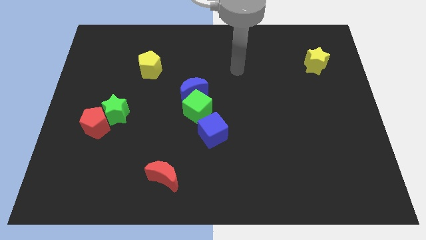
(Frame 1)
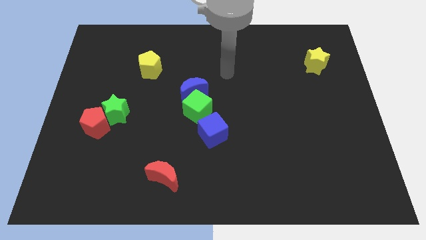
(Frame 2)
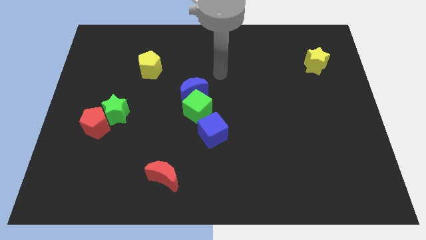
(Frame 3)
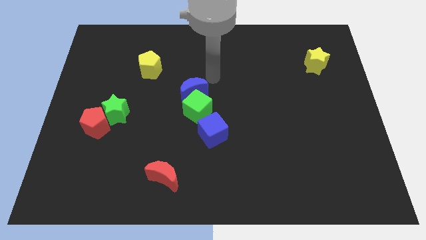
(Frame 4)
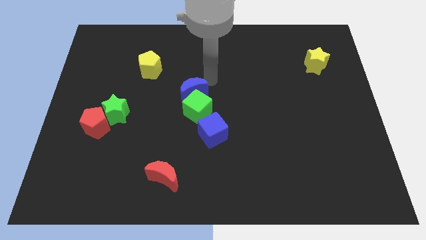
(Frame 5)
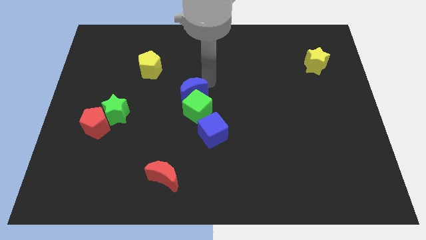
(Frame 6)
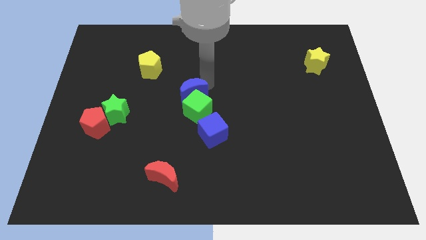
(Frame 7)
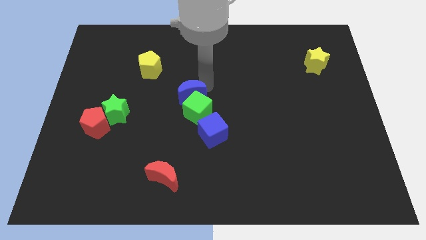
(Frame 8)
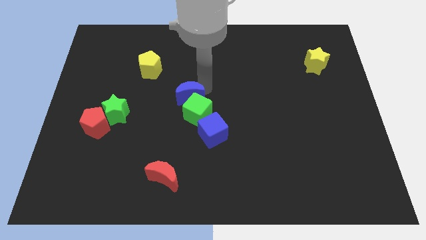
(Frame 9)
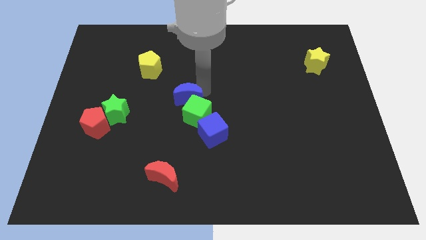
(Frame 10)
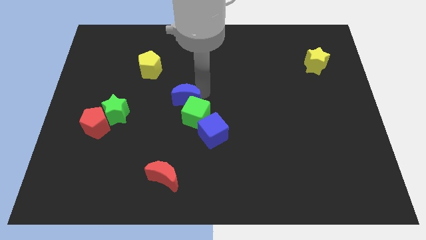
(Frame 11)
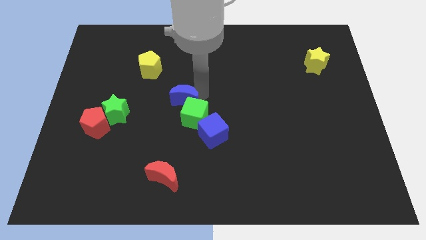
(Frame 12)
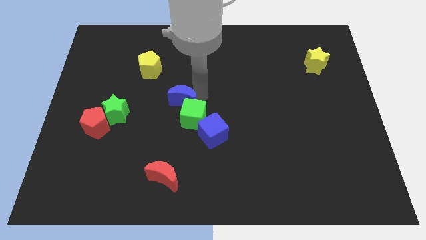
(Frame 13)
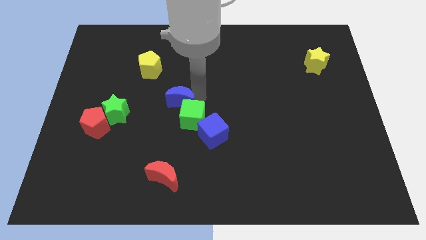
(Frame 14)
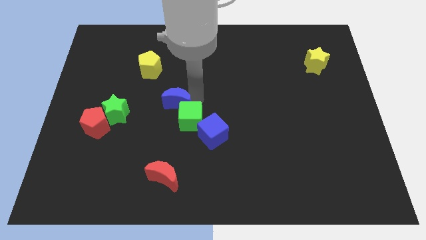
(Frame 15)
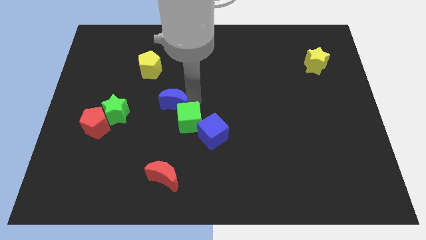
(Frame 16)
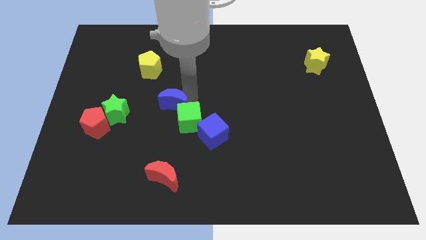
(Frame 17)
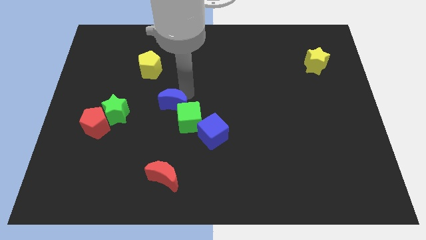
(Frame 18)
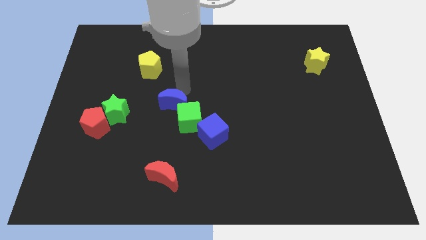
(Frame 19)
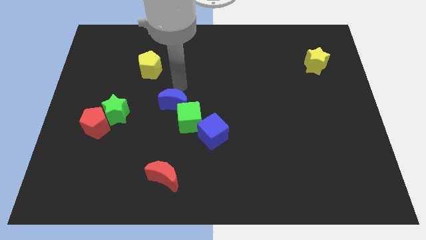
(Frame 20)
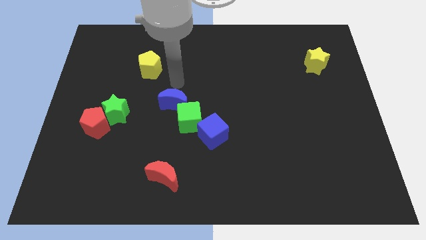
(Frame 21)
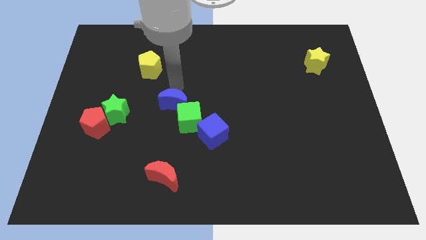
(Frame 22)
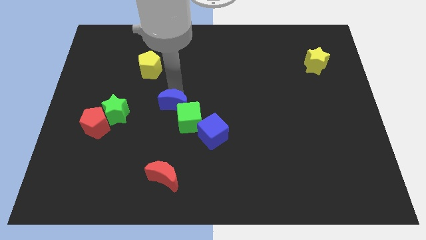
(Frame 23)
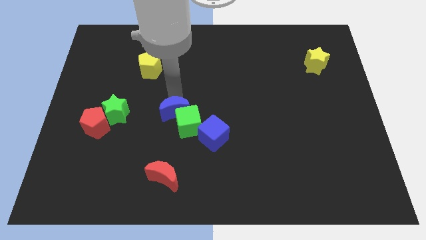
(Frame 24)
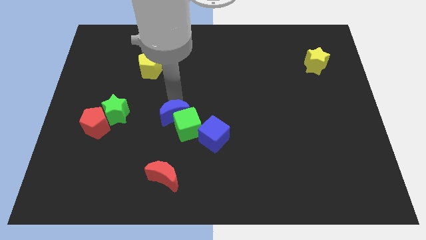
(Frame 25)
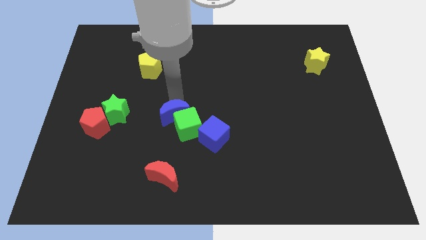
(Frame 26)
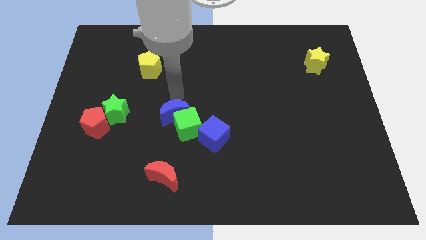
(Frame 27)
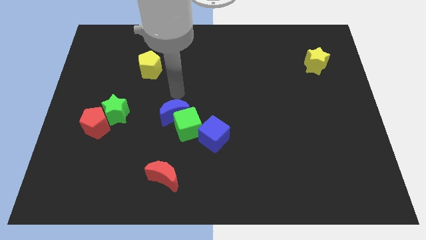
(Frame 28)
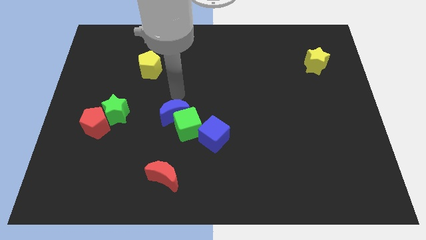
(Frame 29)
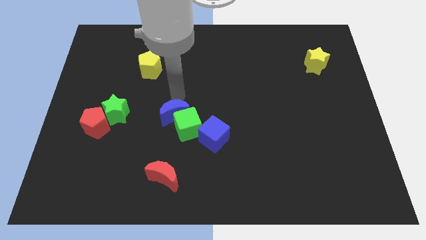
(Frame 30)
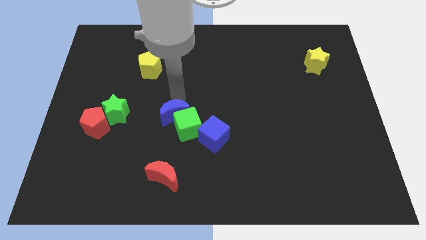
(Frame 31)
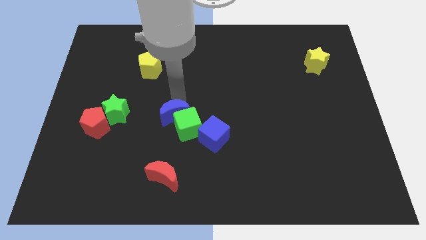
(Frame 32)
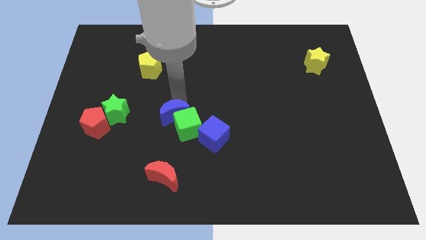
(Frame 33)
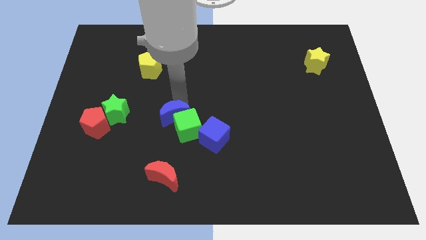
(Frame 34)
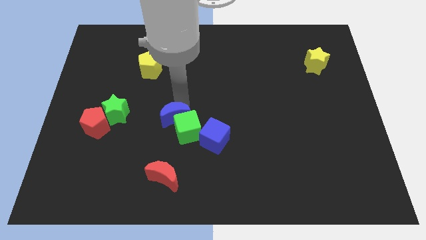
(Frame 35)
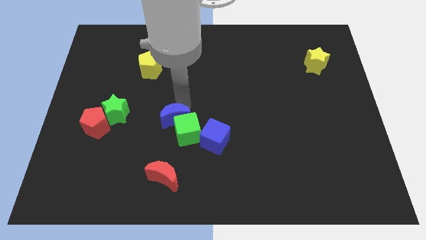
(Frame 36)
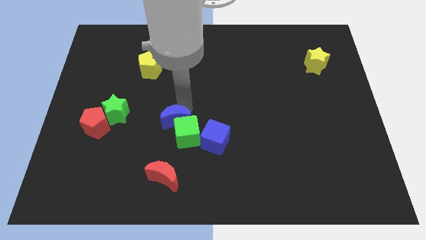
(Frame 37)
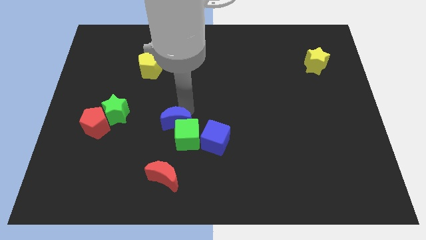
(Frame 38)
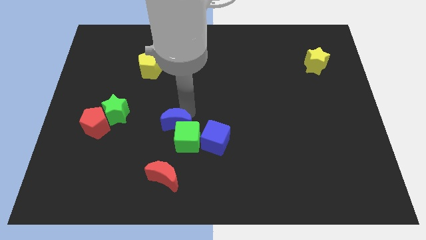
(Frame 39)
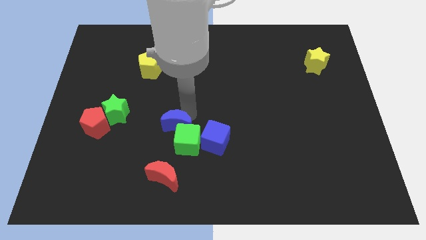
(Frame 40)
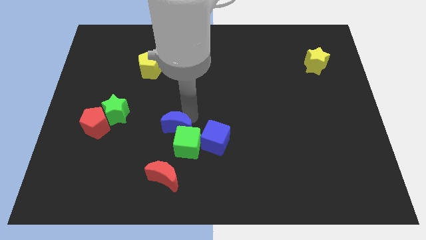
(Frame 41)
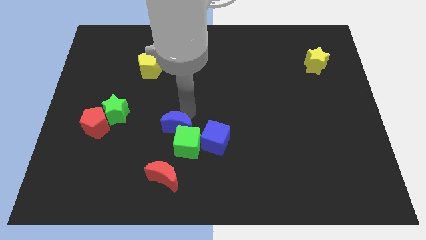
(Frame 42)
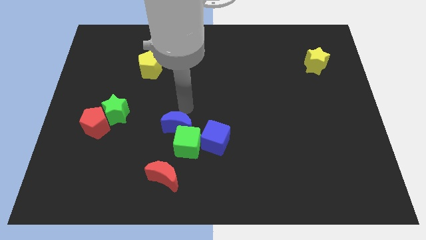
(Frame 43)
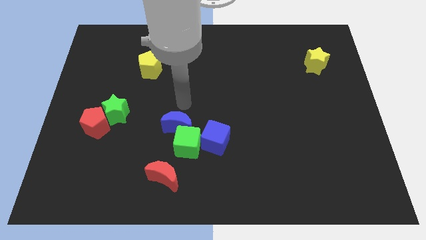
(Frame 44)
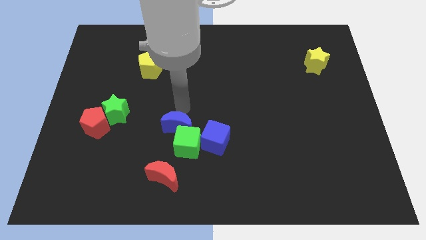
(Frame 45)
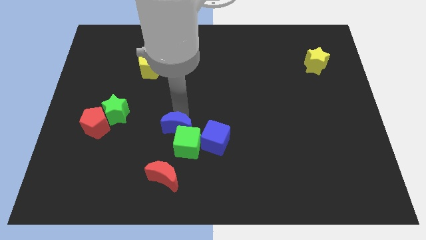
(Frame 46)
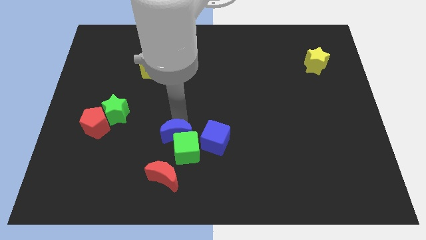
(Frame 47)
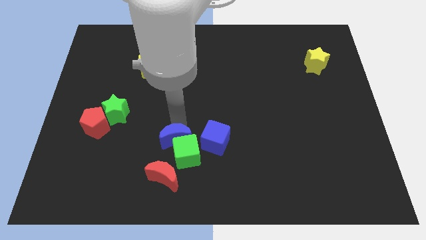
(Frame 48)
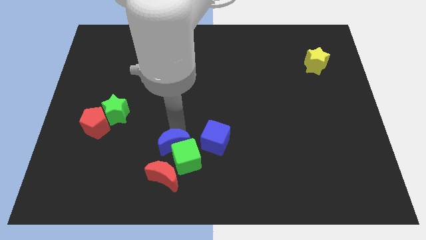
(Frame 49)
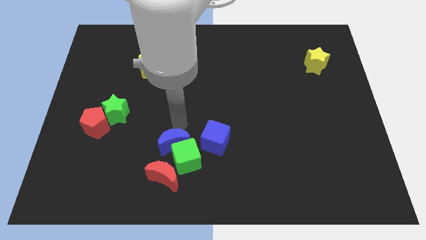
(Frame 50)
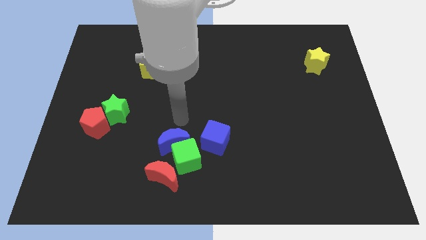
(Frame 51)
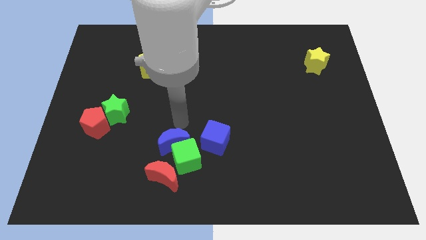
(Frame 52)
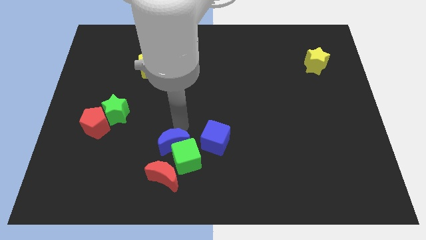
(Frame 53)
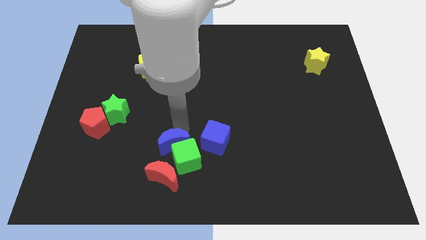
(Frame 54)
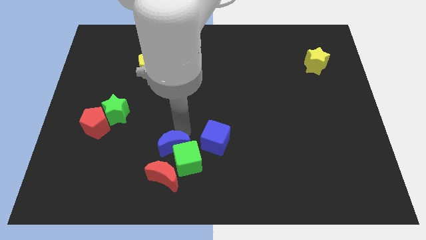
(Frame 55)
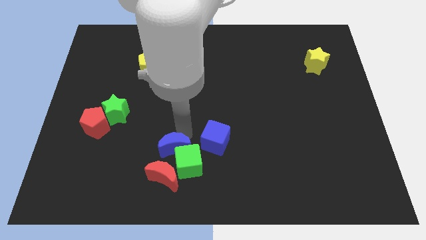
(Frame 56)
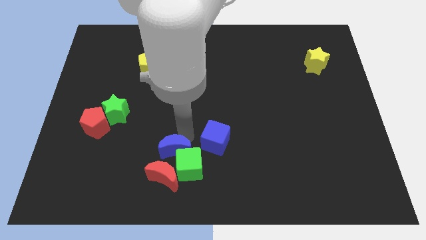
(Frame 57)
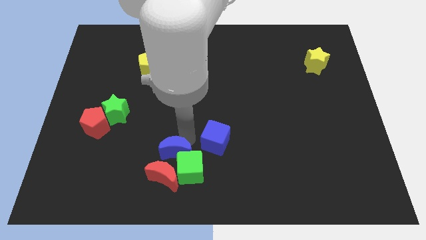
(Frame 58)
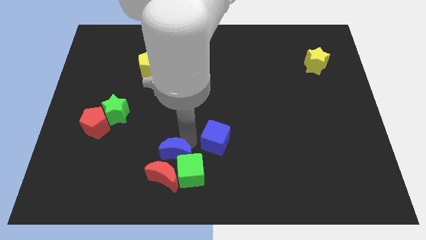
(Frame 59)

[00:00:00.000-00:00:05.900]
move the blue moon next to the red moon

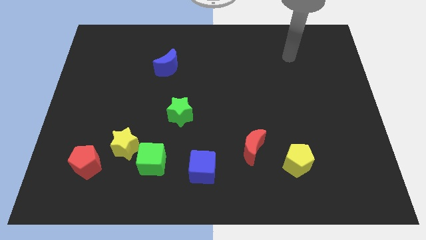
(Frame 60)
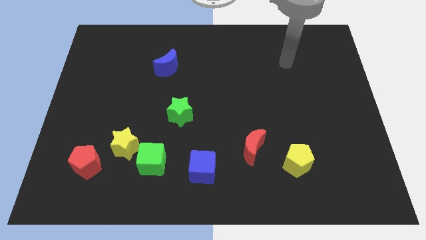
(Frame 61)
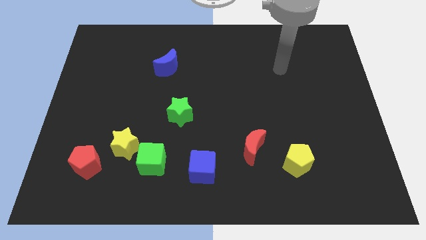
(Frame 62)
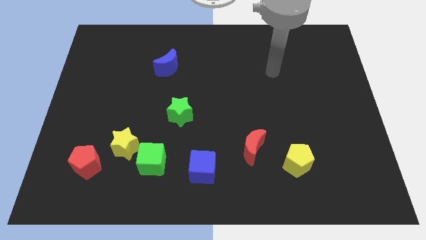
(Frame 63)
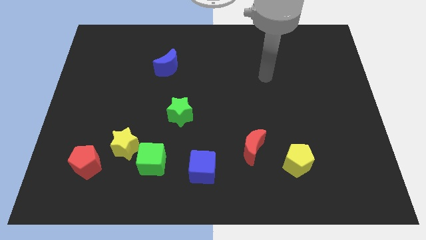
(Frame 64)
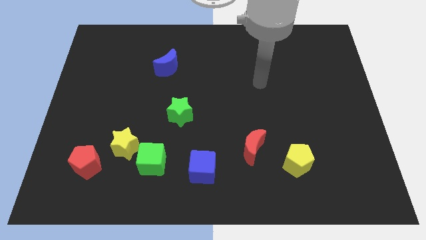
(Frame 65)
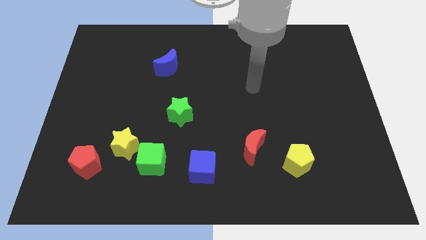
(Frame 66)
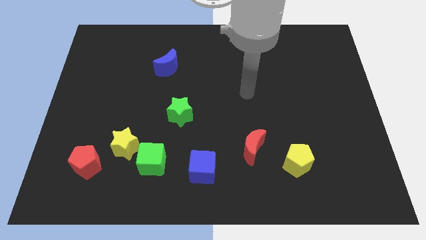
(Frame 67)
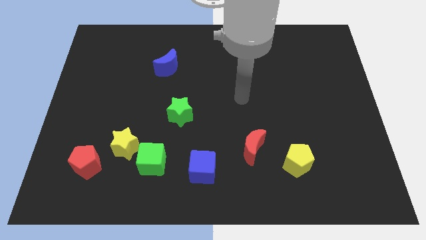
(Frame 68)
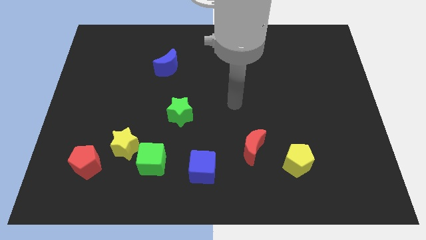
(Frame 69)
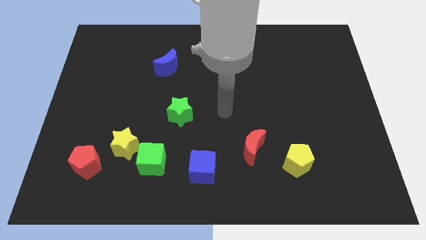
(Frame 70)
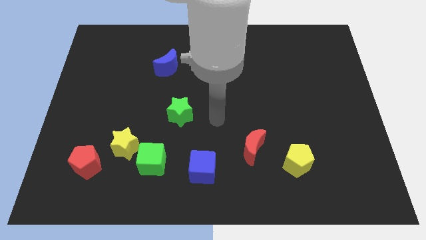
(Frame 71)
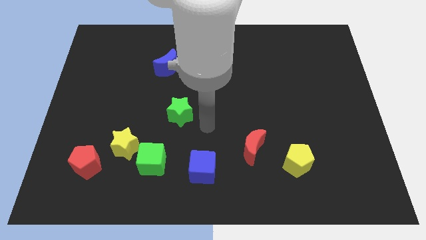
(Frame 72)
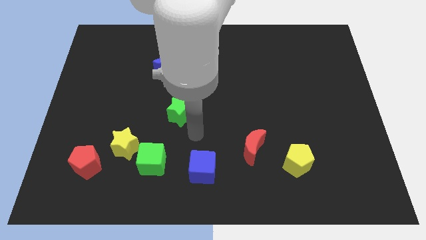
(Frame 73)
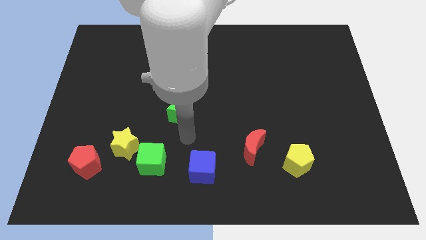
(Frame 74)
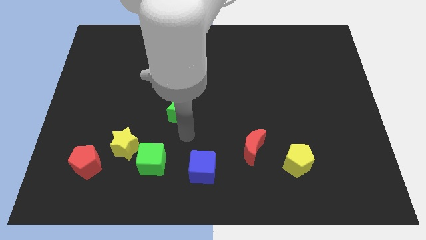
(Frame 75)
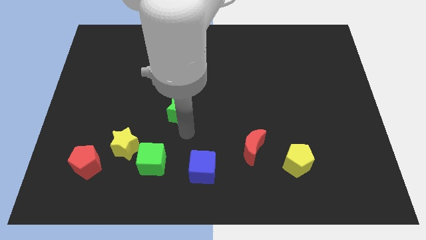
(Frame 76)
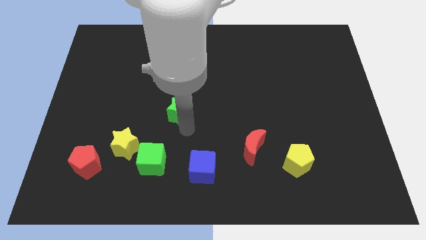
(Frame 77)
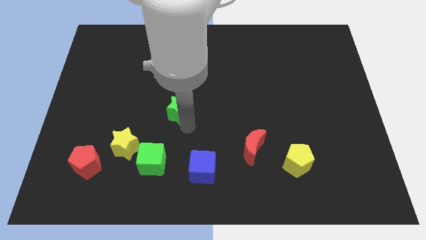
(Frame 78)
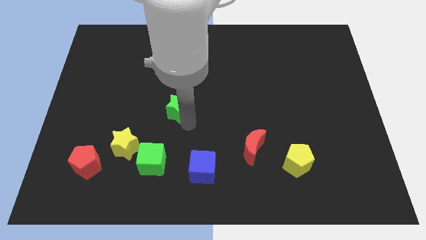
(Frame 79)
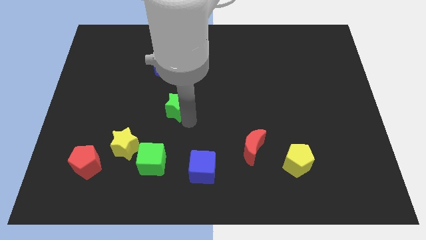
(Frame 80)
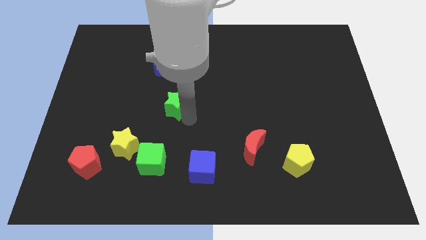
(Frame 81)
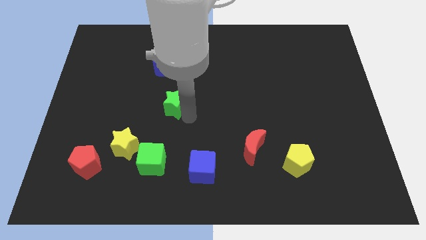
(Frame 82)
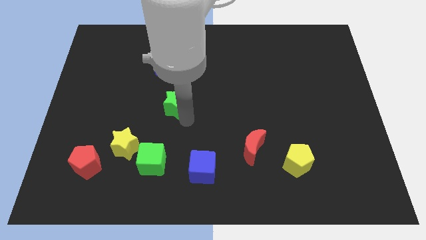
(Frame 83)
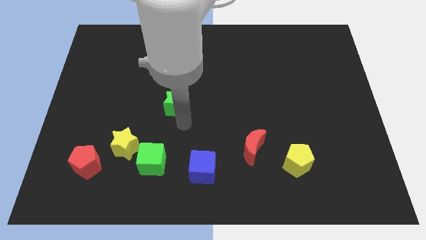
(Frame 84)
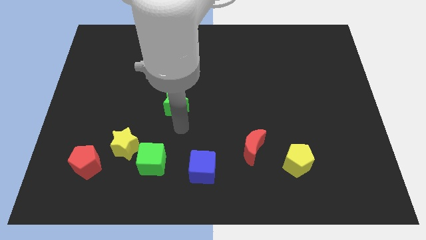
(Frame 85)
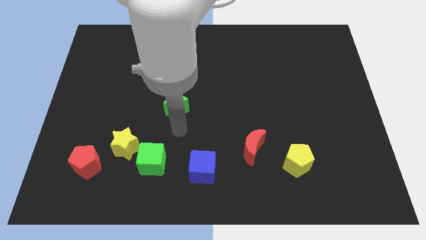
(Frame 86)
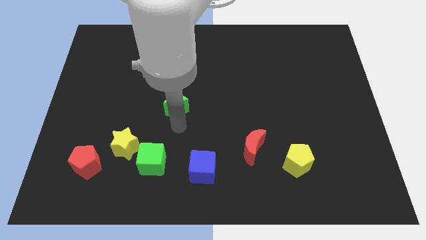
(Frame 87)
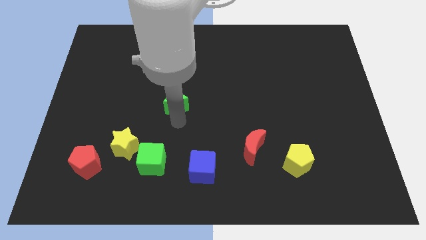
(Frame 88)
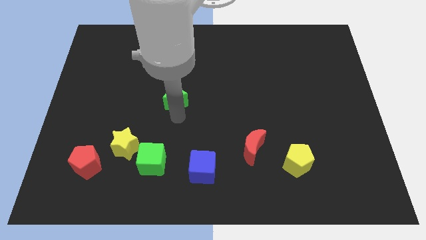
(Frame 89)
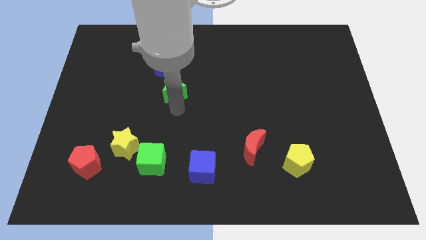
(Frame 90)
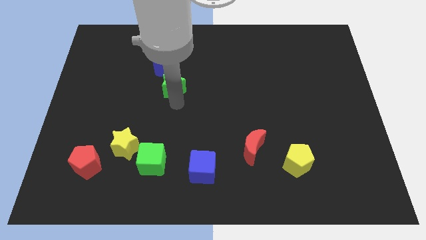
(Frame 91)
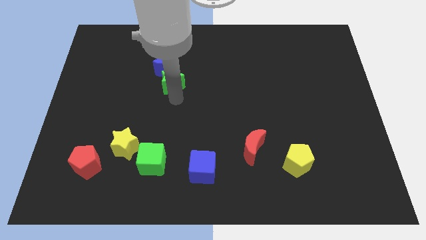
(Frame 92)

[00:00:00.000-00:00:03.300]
push the green star towards the blue moon
